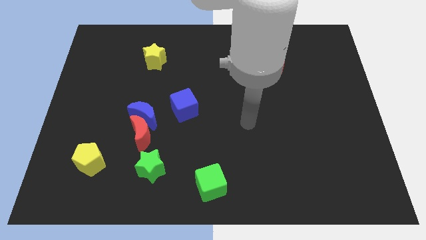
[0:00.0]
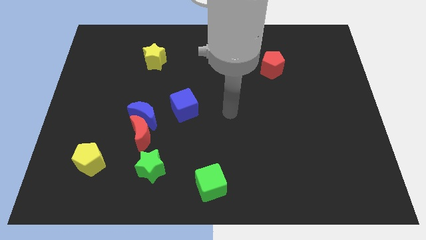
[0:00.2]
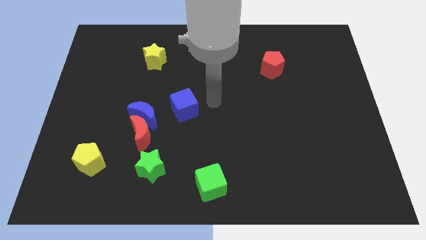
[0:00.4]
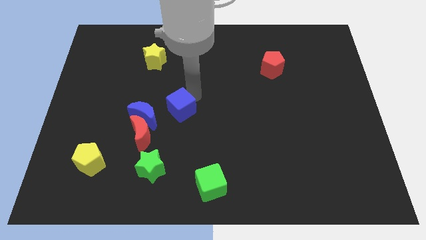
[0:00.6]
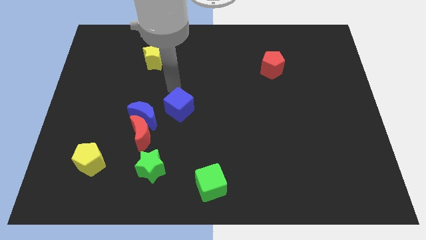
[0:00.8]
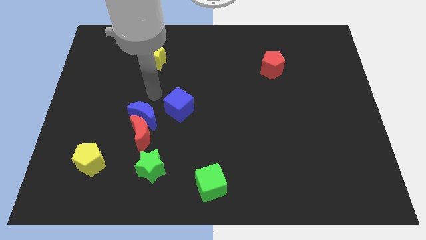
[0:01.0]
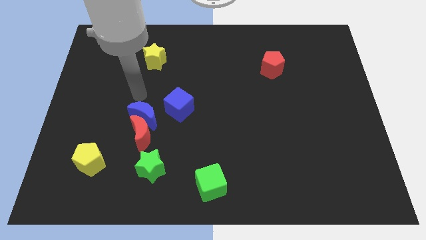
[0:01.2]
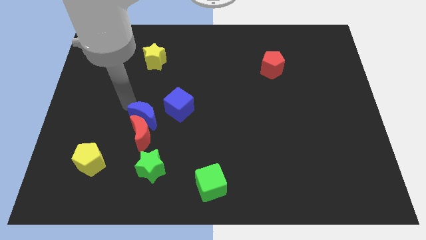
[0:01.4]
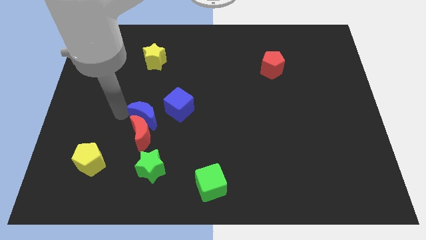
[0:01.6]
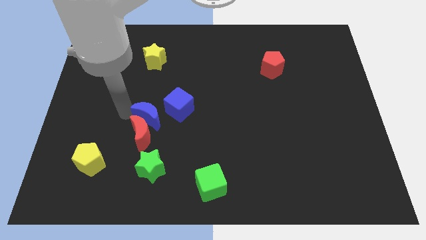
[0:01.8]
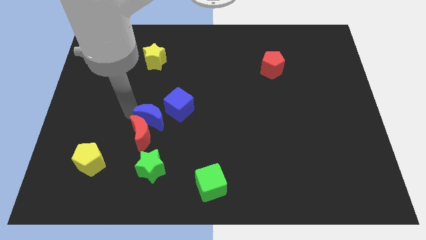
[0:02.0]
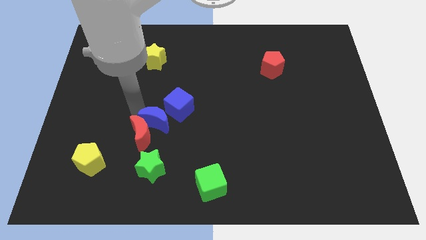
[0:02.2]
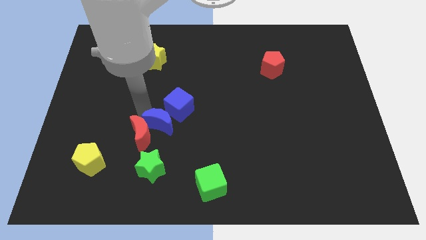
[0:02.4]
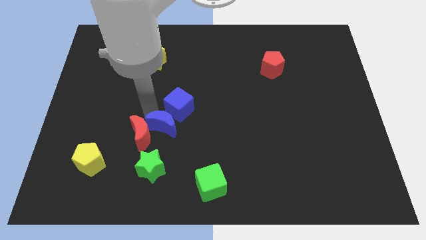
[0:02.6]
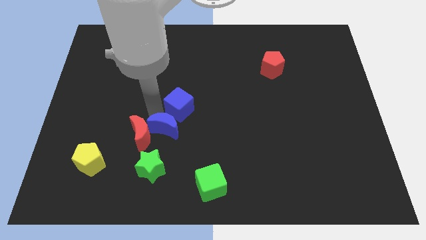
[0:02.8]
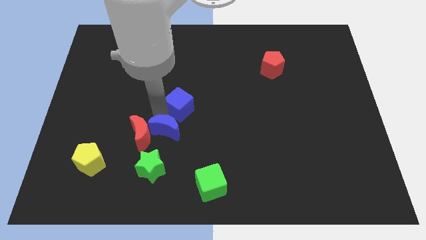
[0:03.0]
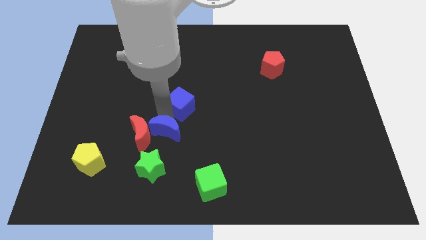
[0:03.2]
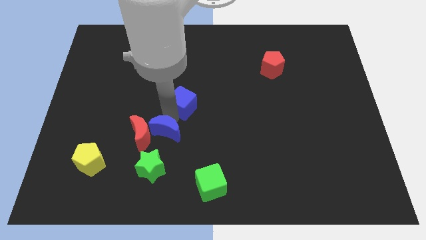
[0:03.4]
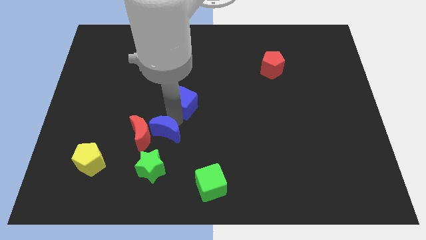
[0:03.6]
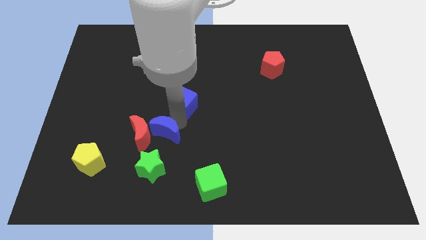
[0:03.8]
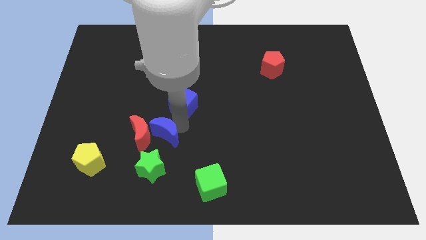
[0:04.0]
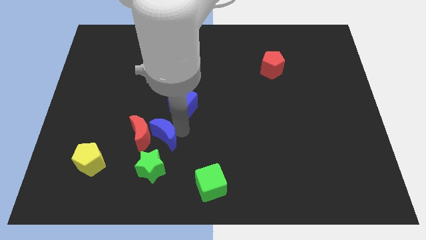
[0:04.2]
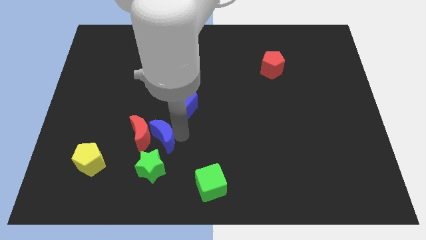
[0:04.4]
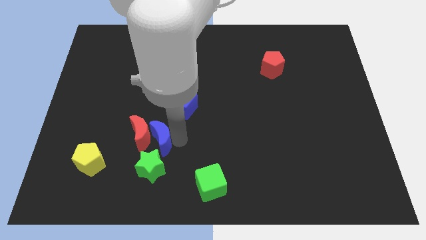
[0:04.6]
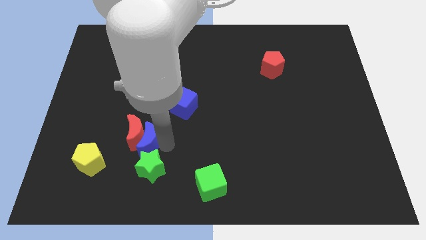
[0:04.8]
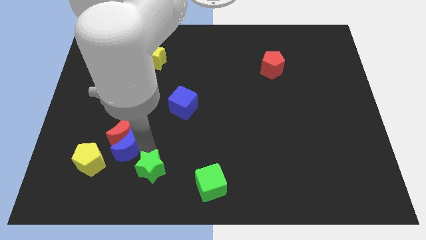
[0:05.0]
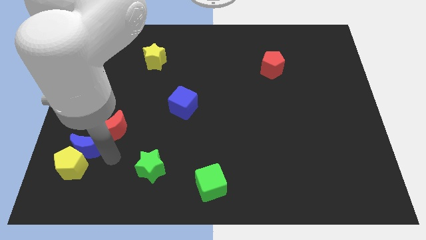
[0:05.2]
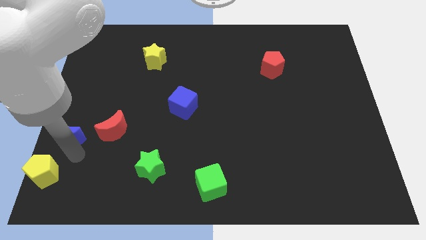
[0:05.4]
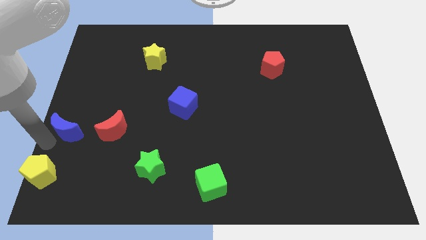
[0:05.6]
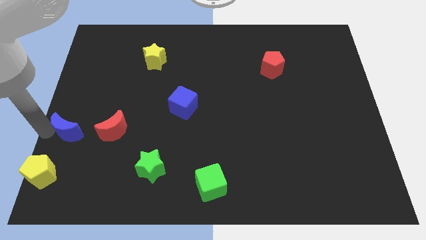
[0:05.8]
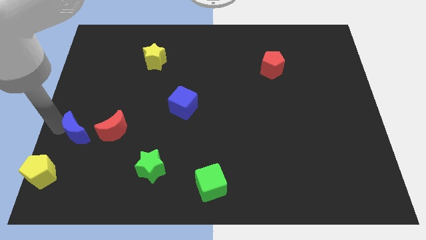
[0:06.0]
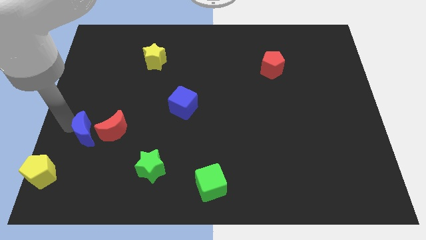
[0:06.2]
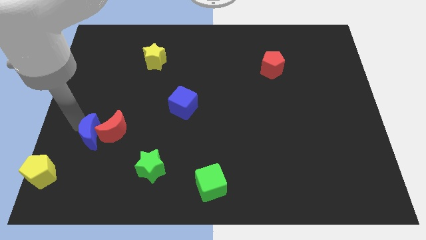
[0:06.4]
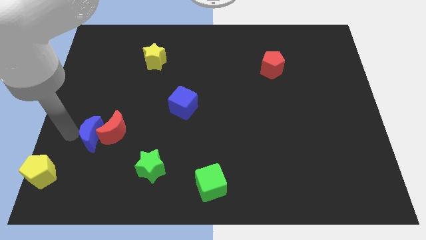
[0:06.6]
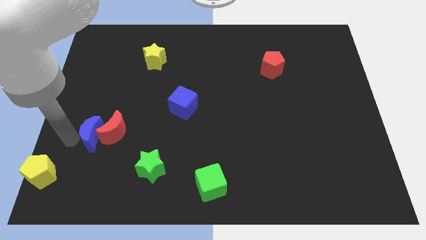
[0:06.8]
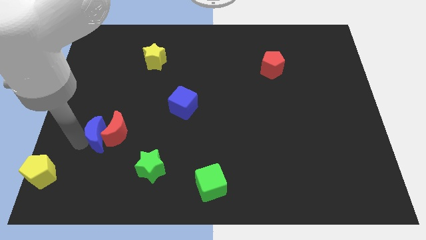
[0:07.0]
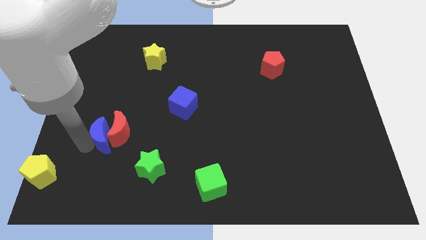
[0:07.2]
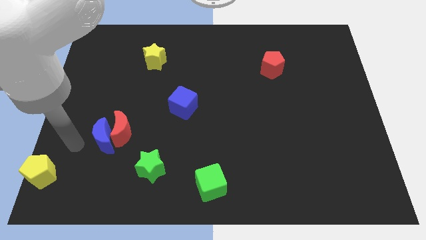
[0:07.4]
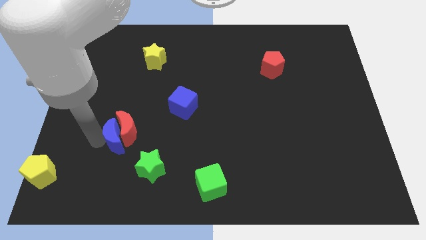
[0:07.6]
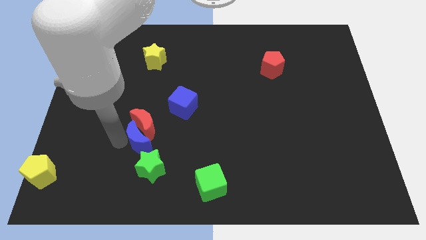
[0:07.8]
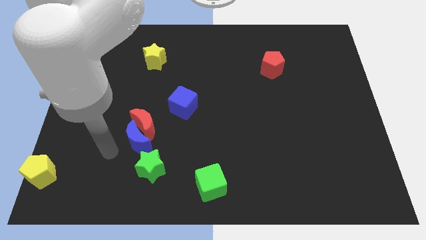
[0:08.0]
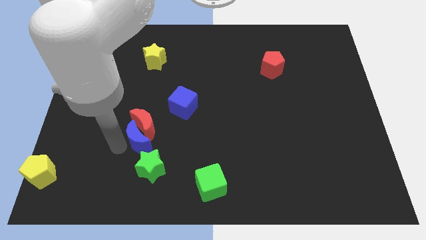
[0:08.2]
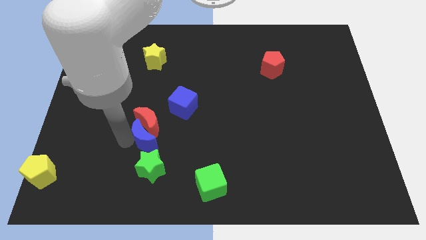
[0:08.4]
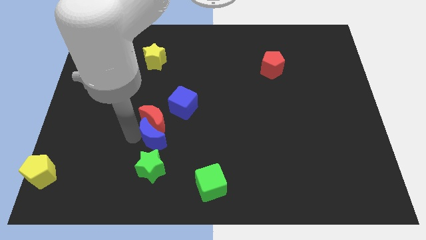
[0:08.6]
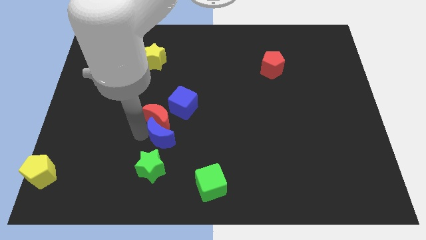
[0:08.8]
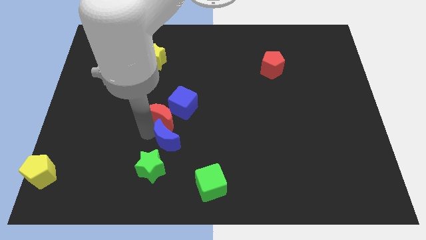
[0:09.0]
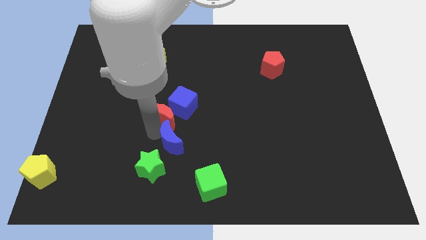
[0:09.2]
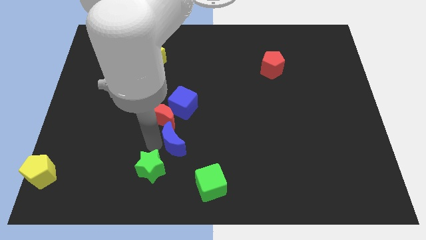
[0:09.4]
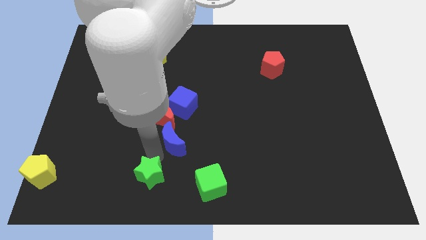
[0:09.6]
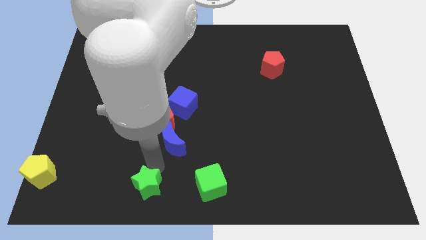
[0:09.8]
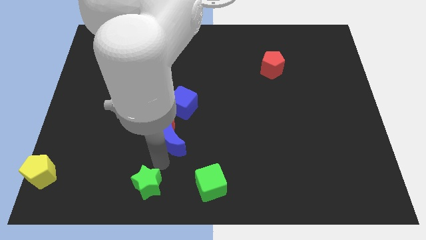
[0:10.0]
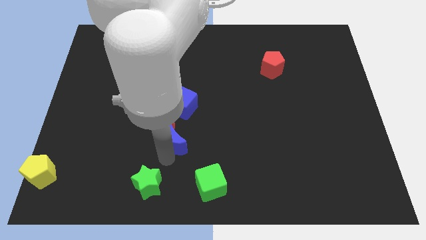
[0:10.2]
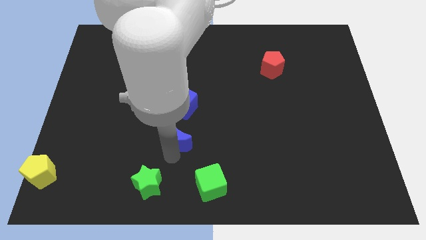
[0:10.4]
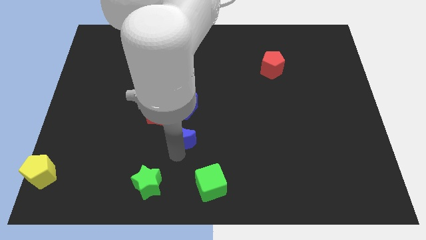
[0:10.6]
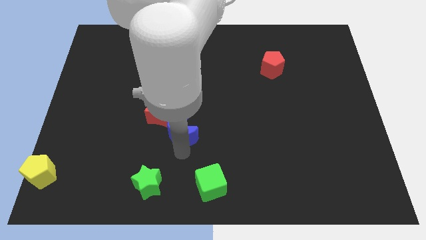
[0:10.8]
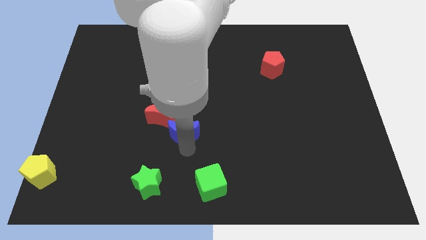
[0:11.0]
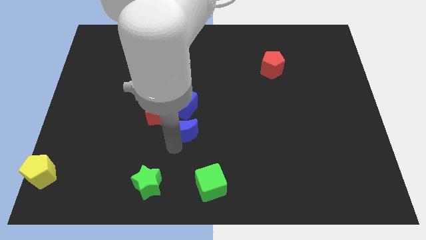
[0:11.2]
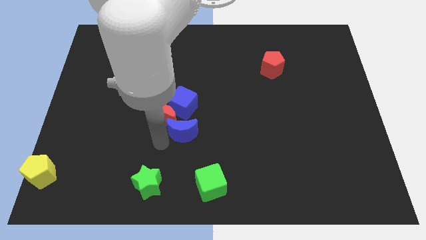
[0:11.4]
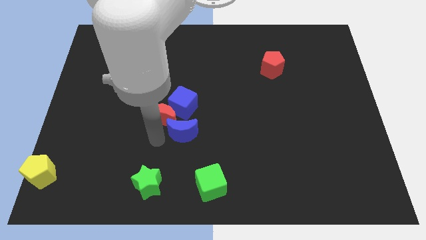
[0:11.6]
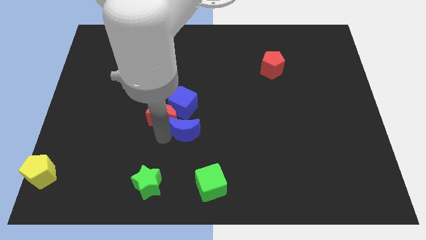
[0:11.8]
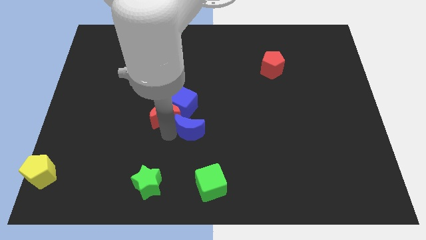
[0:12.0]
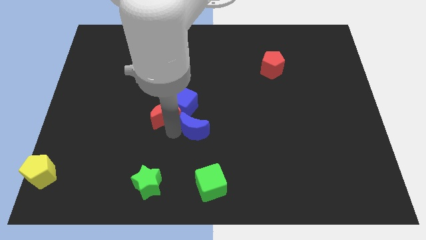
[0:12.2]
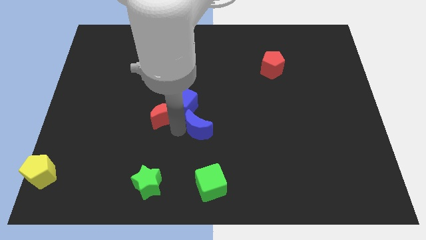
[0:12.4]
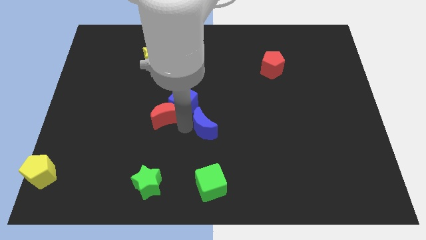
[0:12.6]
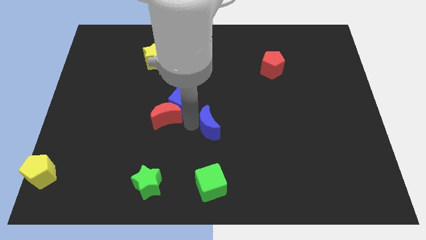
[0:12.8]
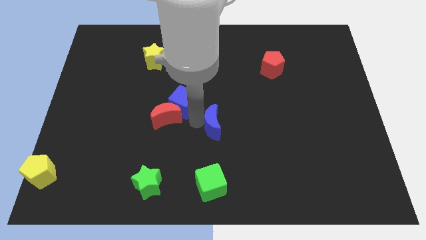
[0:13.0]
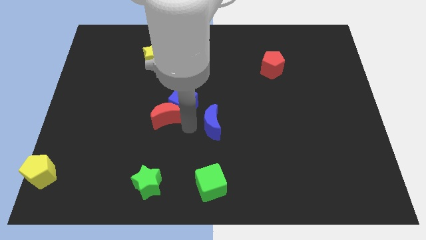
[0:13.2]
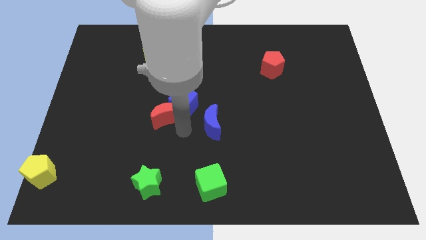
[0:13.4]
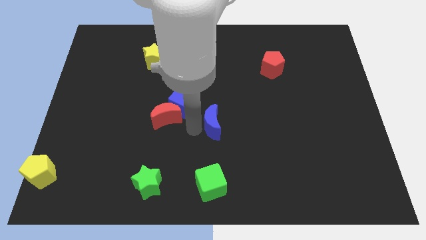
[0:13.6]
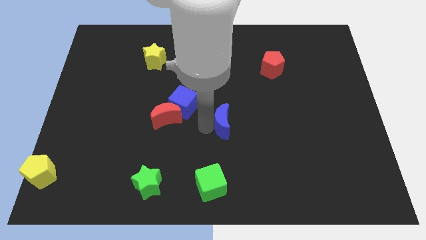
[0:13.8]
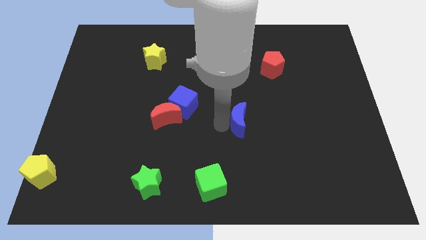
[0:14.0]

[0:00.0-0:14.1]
push the blue moon to the right

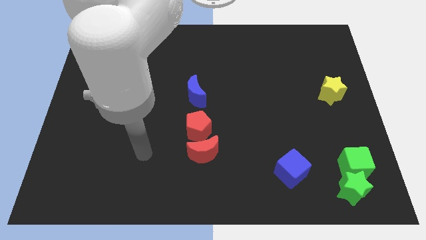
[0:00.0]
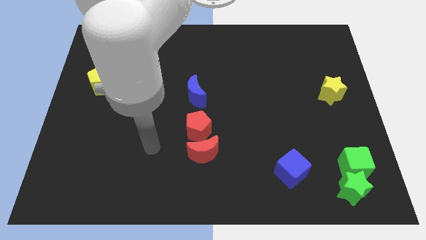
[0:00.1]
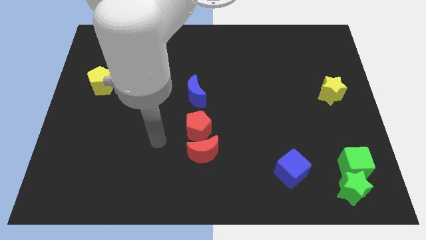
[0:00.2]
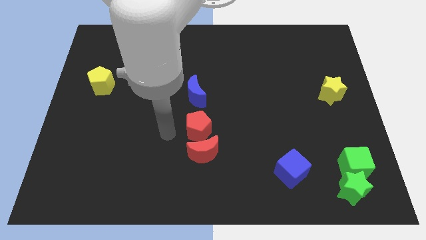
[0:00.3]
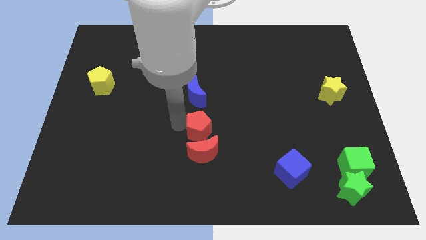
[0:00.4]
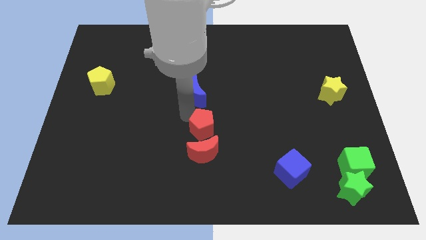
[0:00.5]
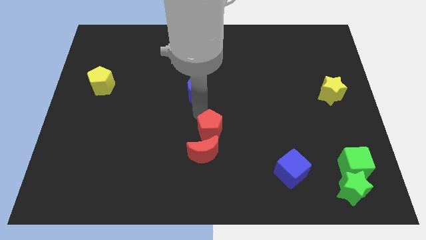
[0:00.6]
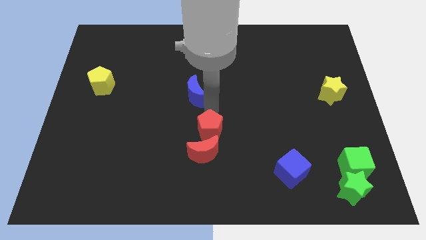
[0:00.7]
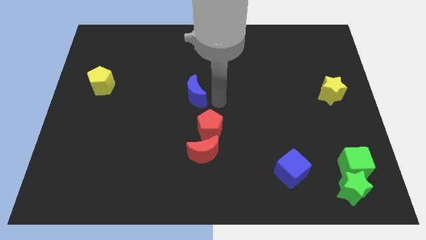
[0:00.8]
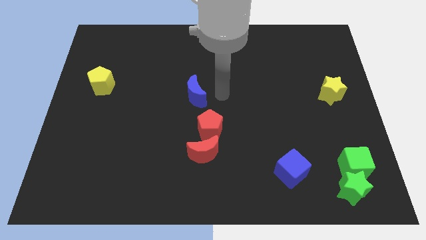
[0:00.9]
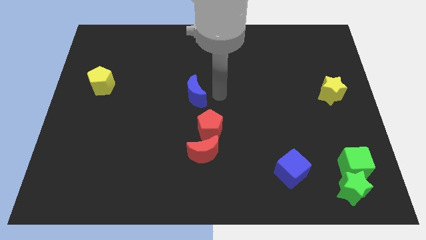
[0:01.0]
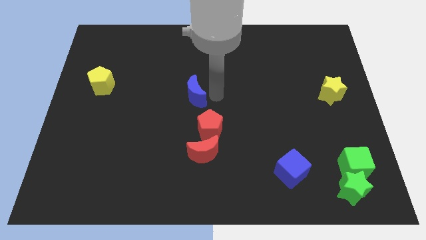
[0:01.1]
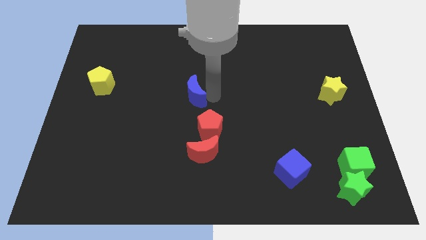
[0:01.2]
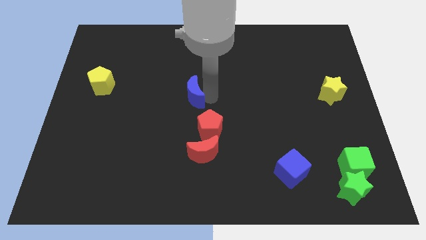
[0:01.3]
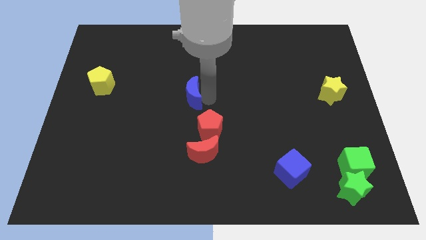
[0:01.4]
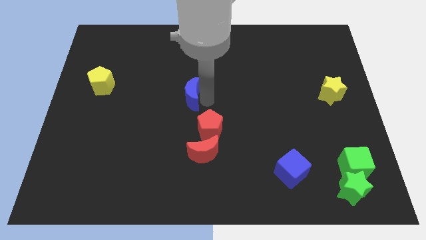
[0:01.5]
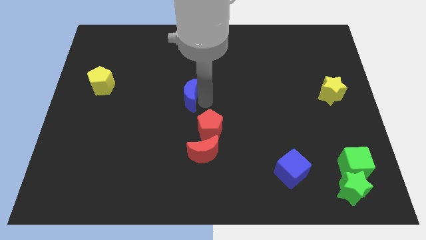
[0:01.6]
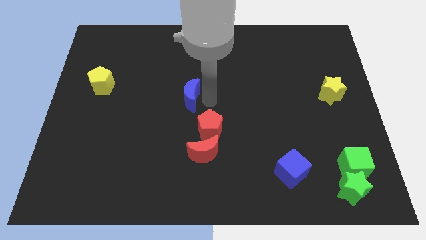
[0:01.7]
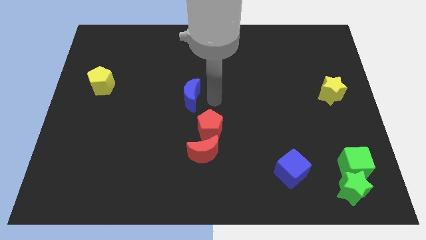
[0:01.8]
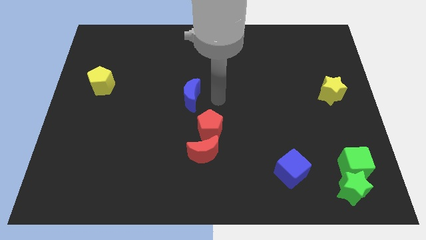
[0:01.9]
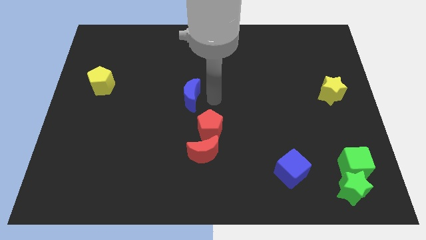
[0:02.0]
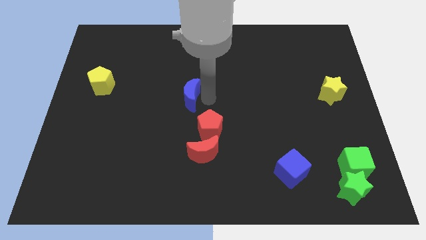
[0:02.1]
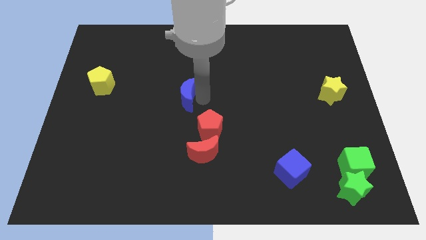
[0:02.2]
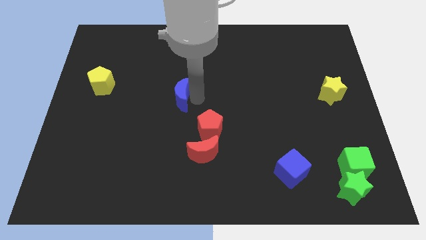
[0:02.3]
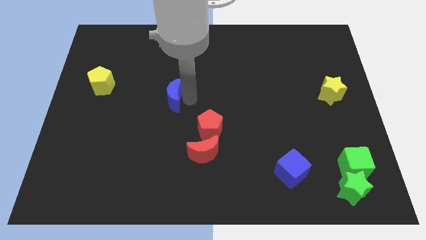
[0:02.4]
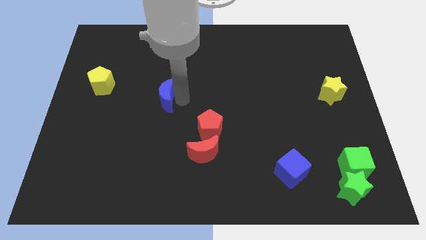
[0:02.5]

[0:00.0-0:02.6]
push the blue moon to the left a little bit
